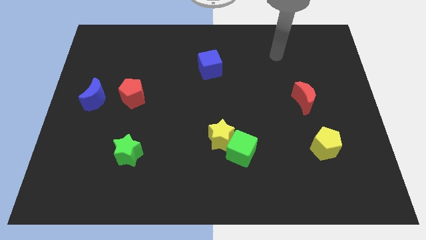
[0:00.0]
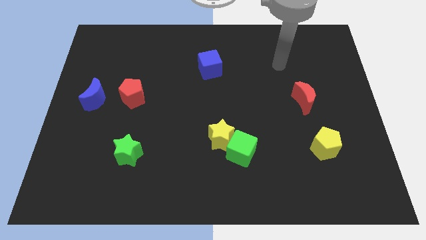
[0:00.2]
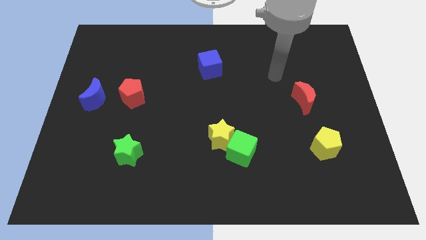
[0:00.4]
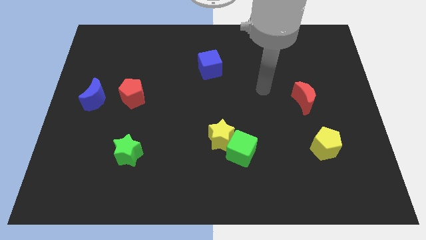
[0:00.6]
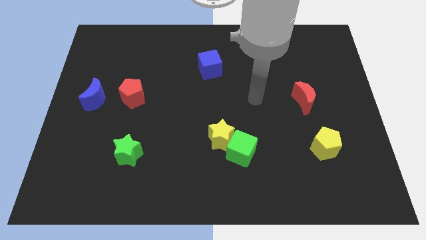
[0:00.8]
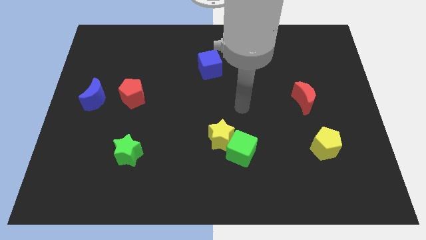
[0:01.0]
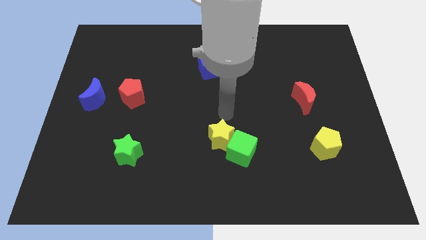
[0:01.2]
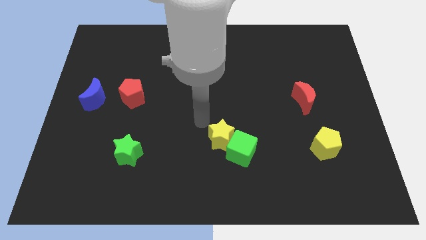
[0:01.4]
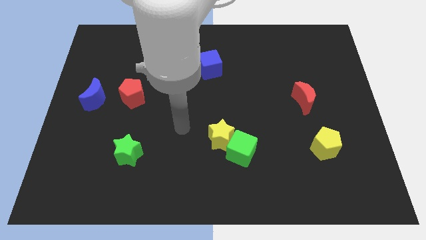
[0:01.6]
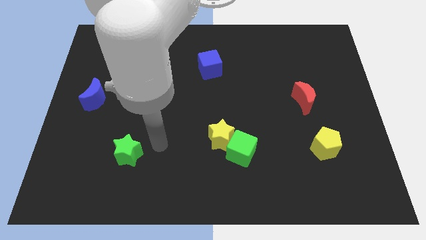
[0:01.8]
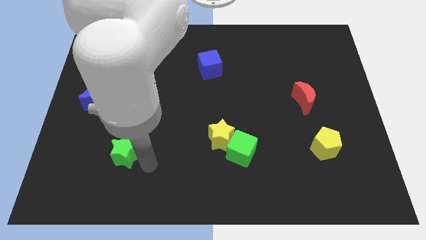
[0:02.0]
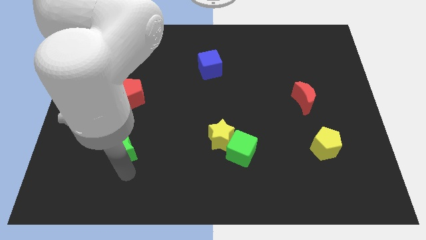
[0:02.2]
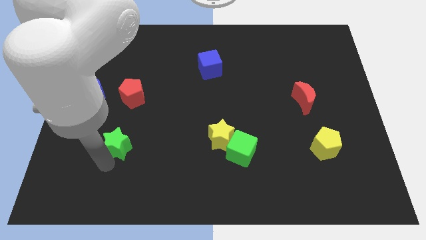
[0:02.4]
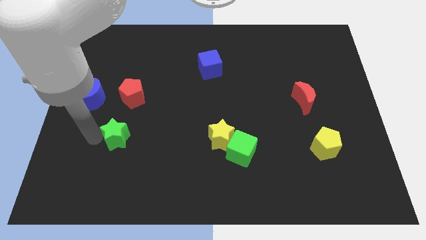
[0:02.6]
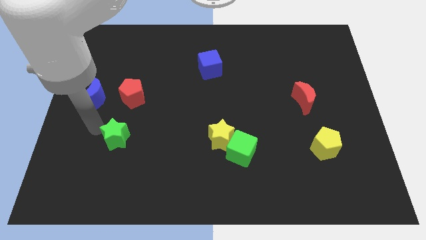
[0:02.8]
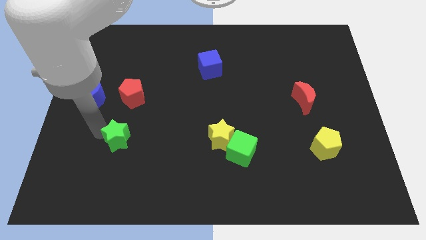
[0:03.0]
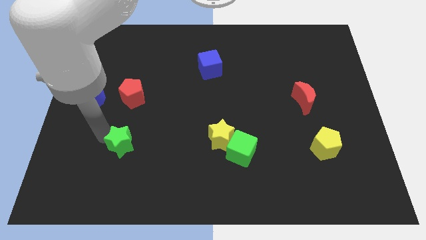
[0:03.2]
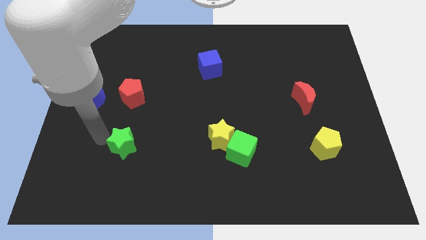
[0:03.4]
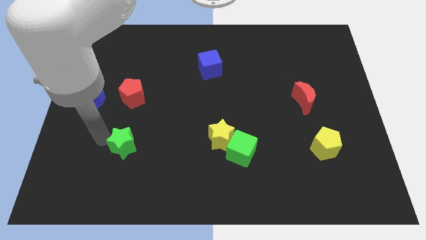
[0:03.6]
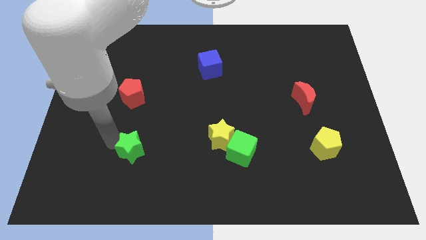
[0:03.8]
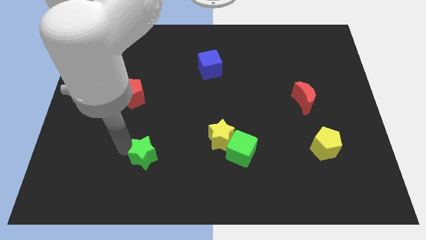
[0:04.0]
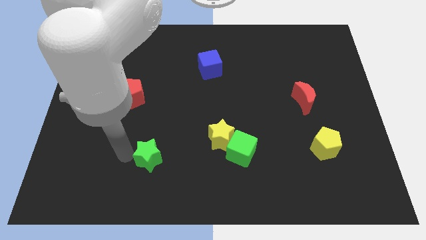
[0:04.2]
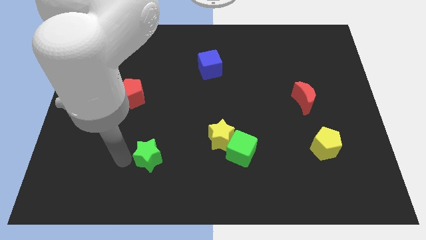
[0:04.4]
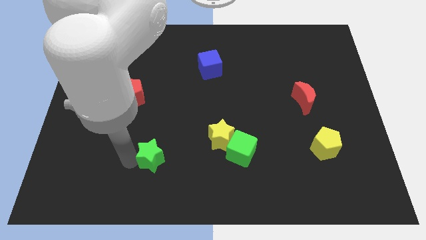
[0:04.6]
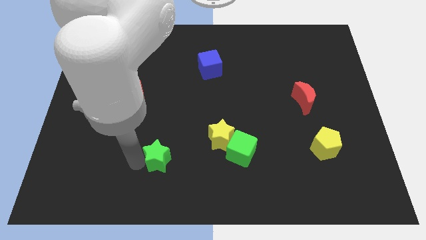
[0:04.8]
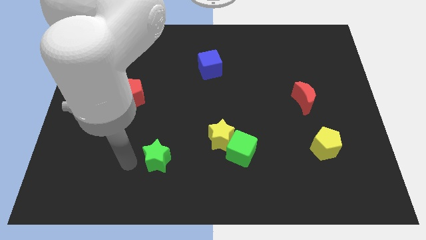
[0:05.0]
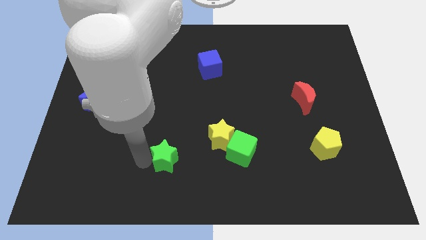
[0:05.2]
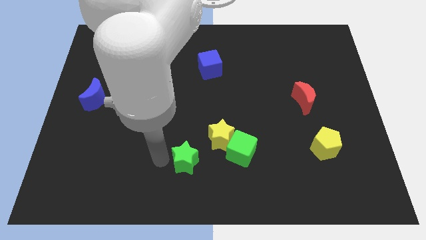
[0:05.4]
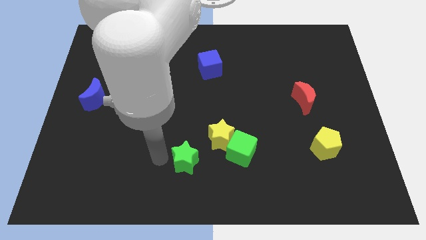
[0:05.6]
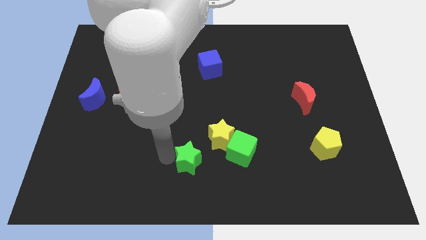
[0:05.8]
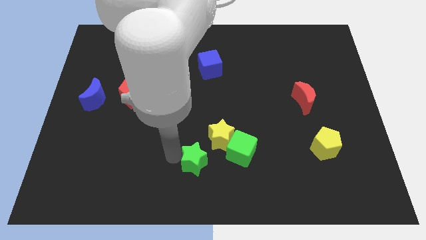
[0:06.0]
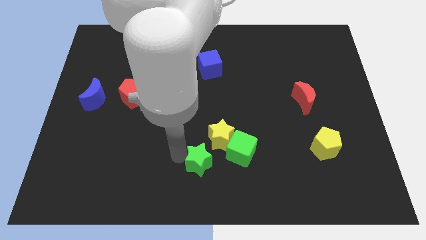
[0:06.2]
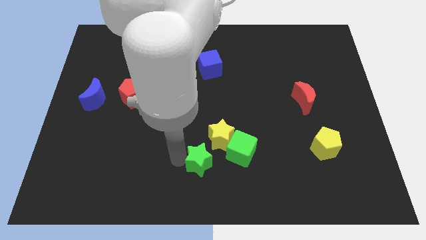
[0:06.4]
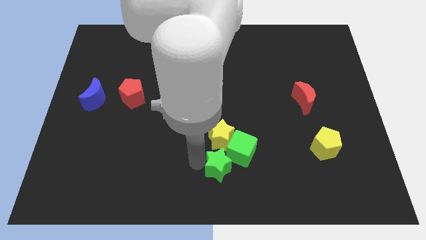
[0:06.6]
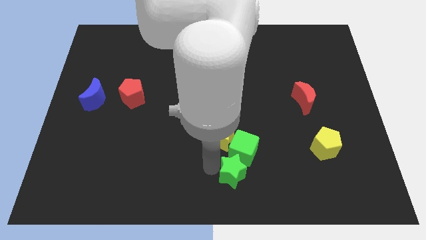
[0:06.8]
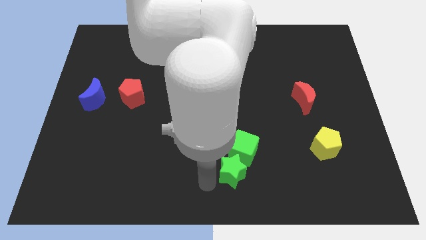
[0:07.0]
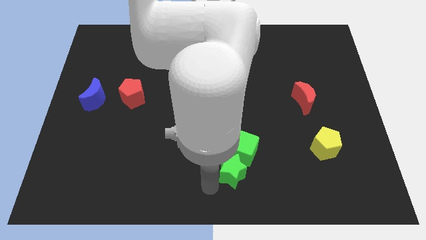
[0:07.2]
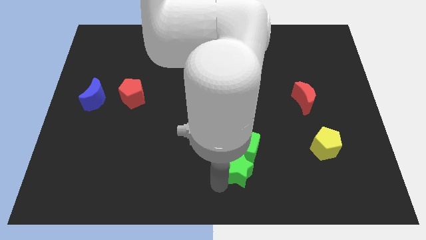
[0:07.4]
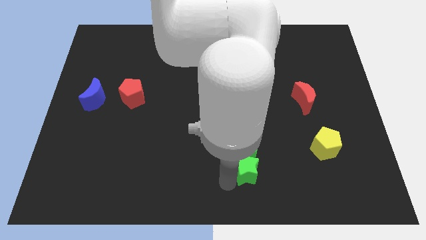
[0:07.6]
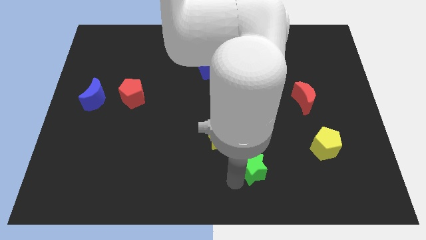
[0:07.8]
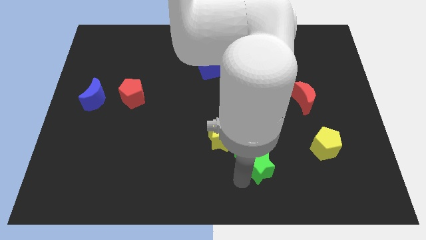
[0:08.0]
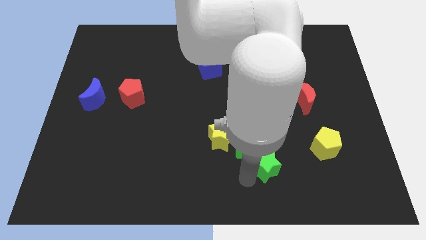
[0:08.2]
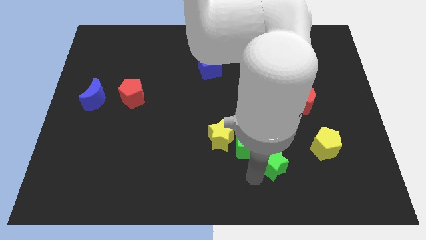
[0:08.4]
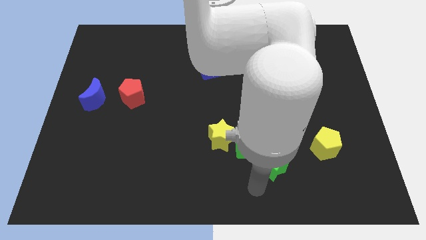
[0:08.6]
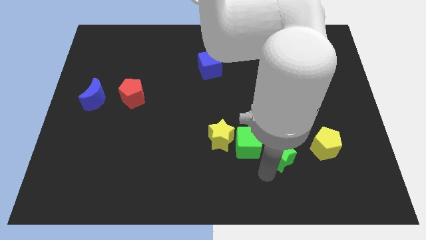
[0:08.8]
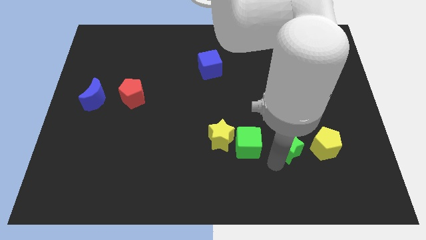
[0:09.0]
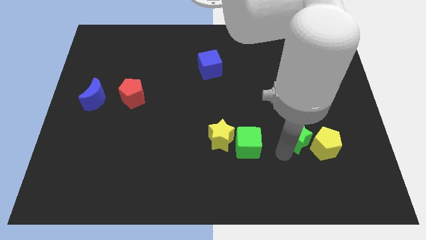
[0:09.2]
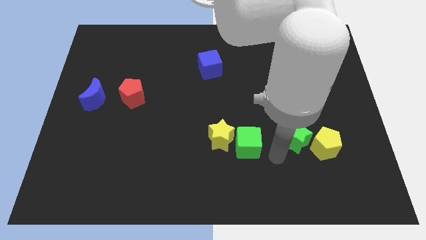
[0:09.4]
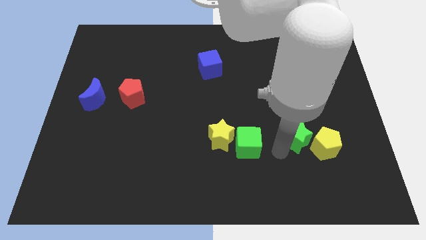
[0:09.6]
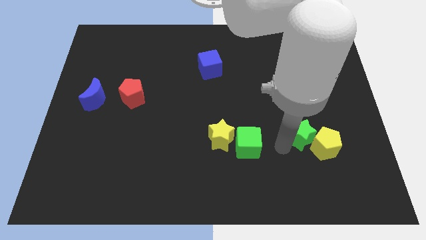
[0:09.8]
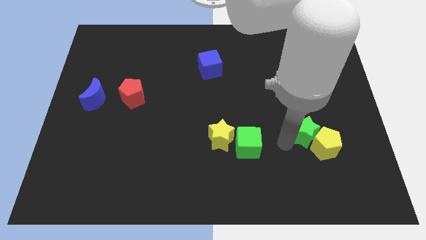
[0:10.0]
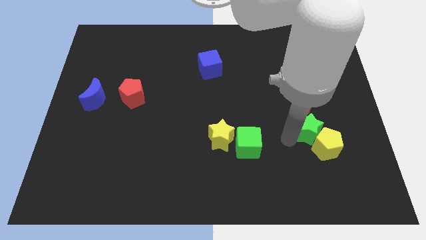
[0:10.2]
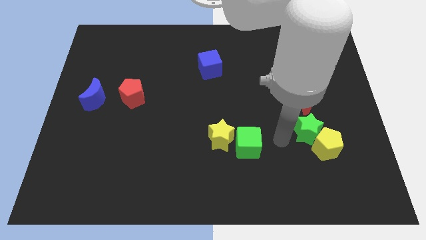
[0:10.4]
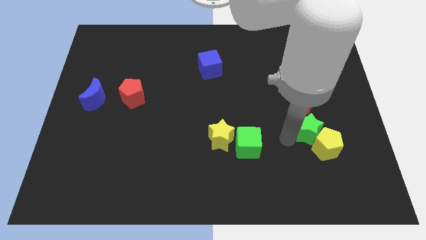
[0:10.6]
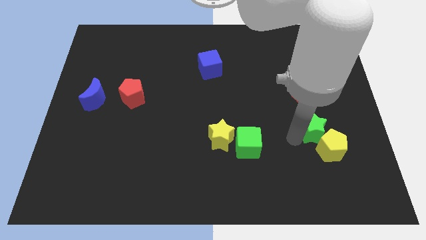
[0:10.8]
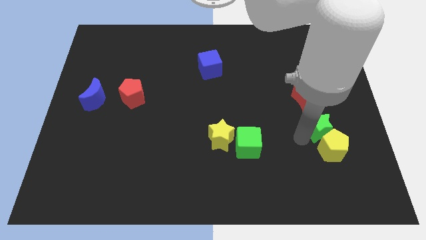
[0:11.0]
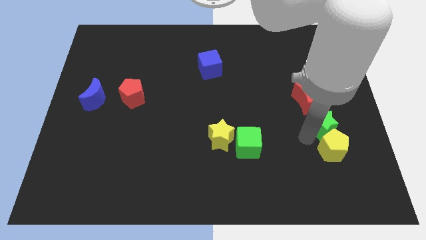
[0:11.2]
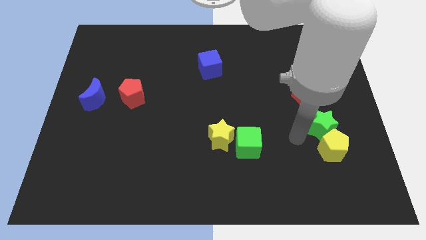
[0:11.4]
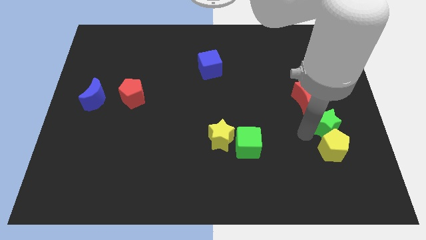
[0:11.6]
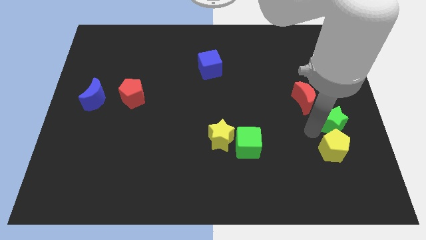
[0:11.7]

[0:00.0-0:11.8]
slide the green star to the center right

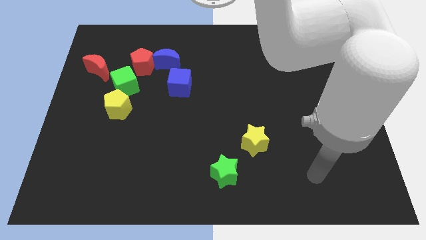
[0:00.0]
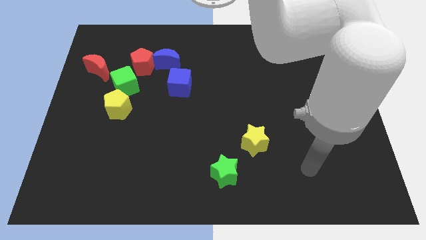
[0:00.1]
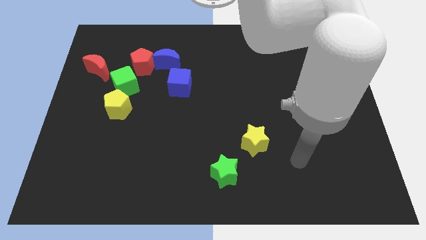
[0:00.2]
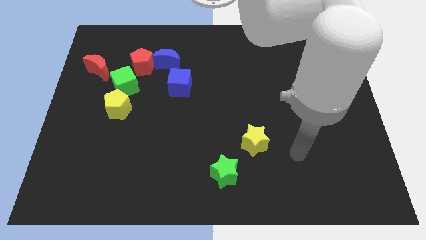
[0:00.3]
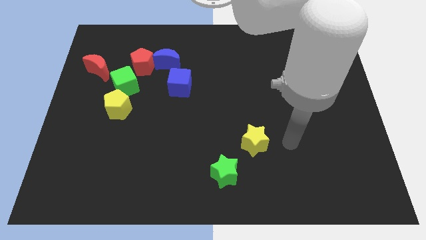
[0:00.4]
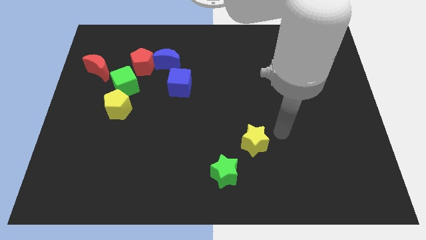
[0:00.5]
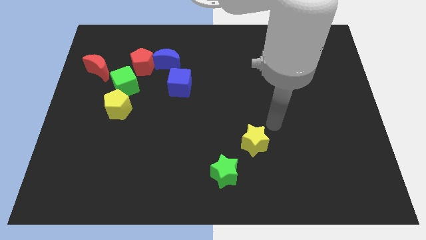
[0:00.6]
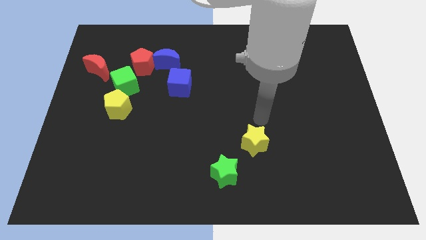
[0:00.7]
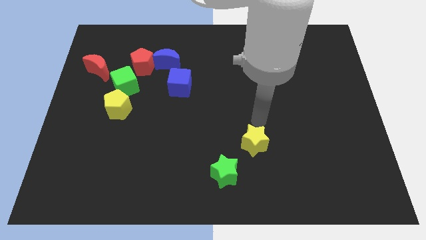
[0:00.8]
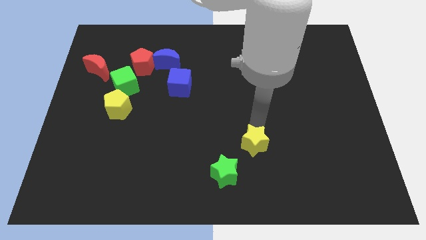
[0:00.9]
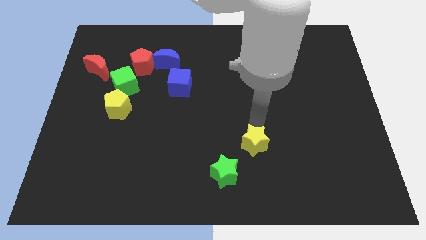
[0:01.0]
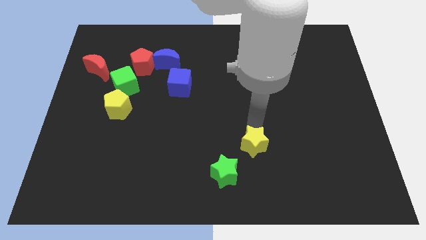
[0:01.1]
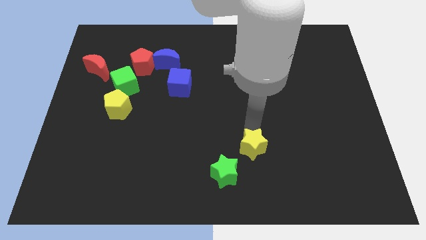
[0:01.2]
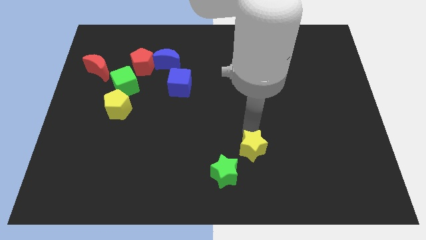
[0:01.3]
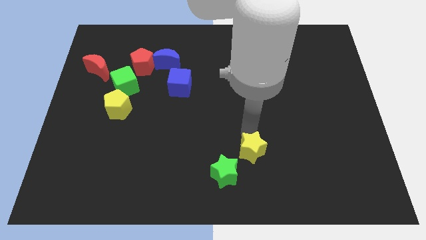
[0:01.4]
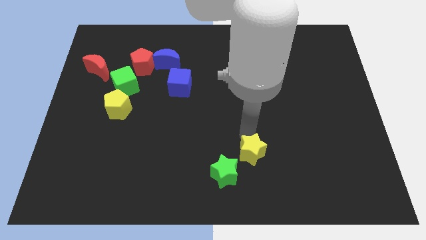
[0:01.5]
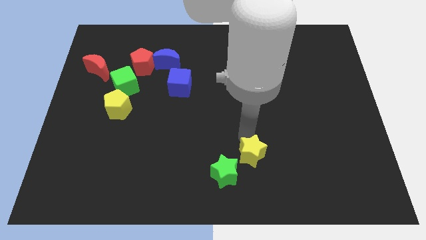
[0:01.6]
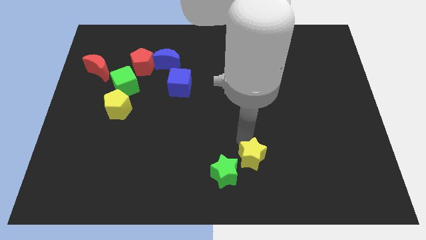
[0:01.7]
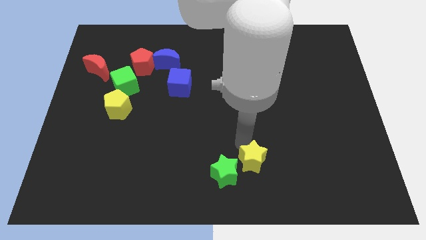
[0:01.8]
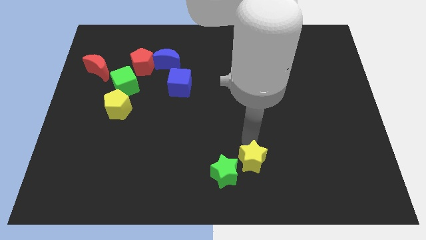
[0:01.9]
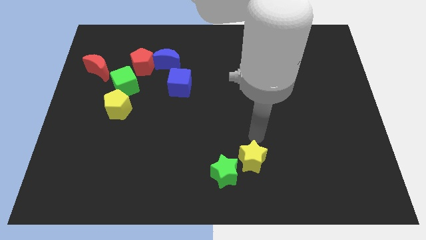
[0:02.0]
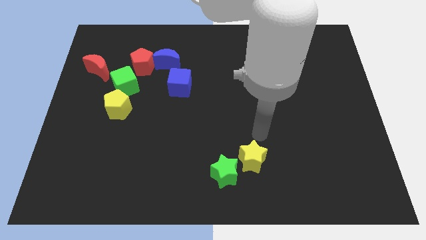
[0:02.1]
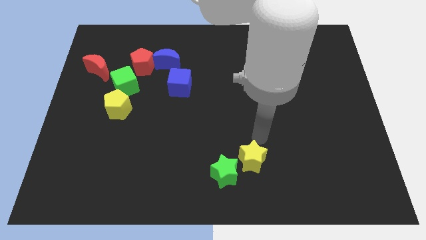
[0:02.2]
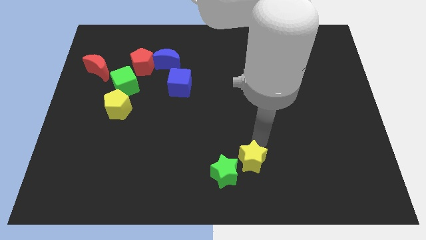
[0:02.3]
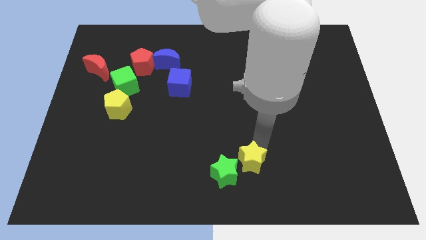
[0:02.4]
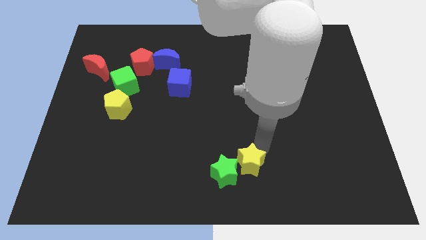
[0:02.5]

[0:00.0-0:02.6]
push the yellow star to the bottom side
